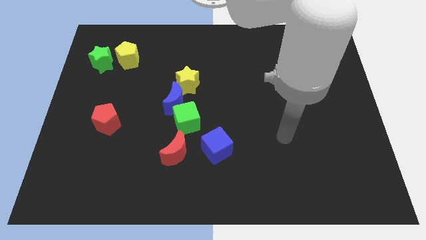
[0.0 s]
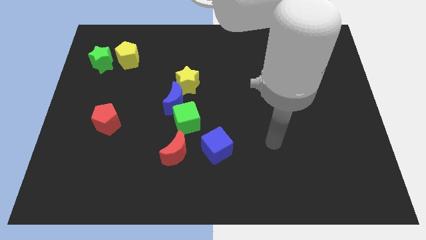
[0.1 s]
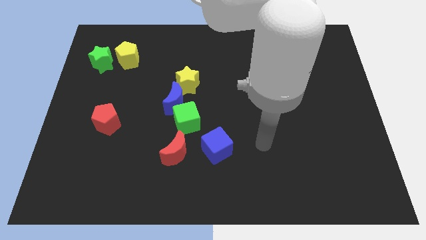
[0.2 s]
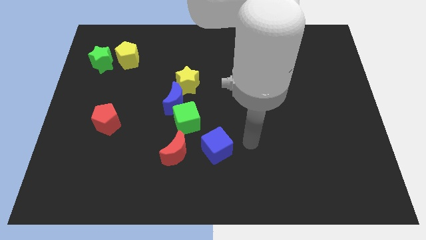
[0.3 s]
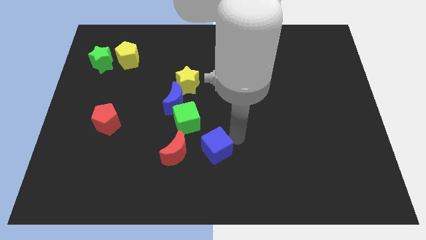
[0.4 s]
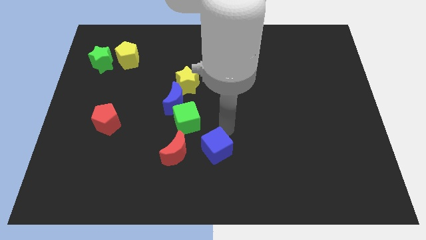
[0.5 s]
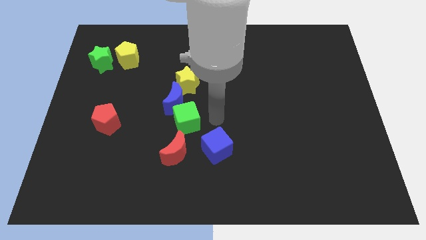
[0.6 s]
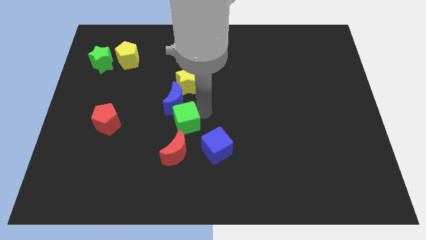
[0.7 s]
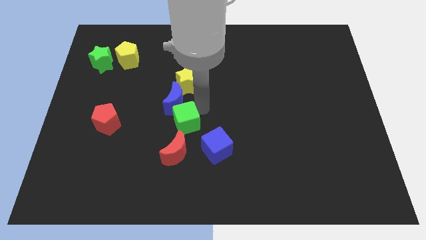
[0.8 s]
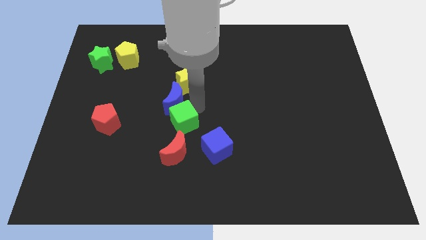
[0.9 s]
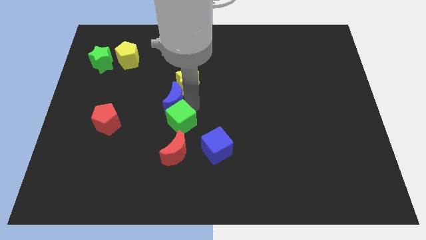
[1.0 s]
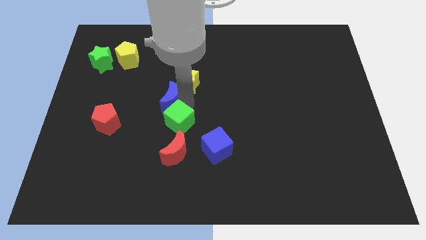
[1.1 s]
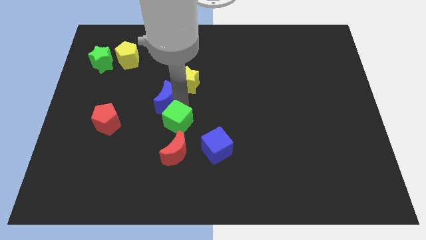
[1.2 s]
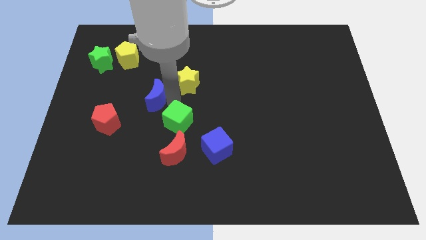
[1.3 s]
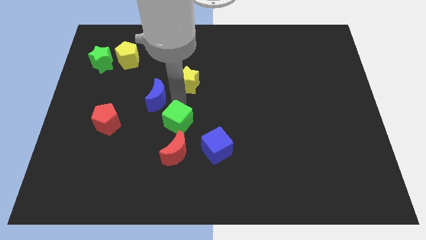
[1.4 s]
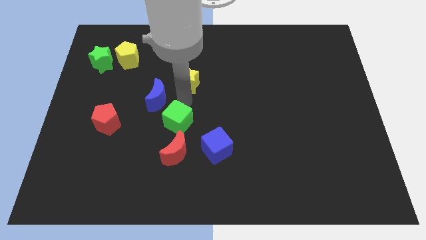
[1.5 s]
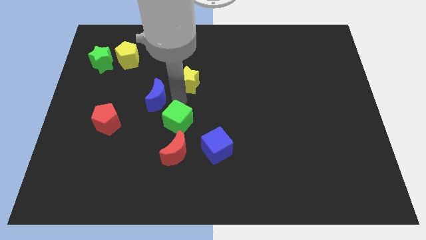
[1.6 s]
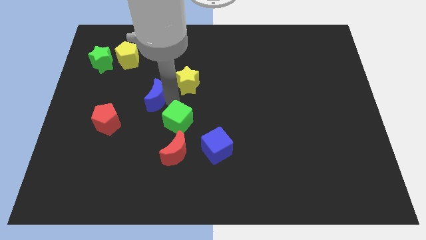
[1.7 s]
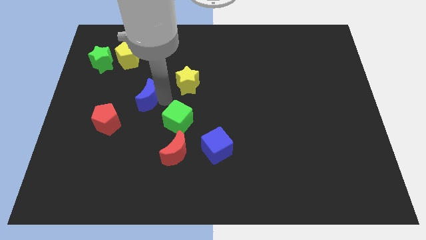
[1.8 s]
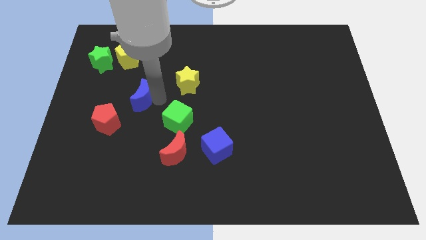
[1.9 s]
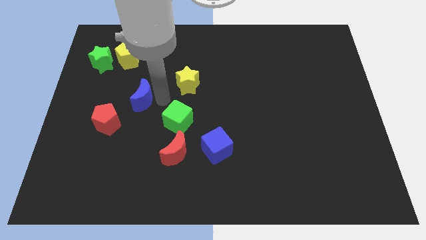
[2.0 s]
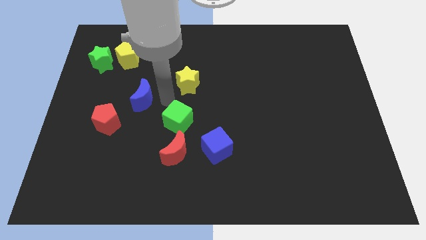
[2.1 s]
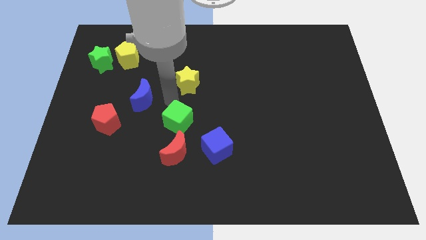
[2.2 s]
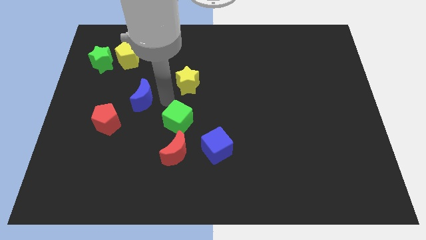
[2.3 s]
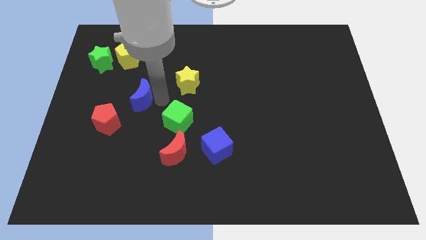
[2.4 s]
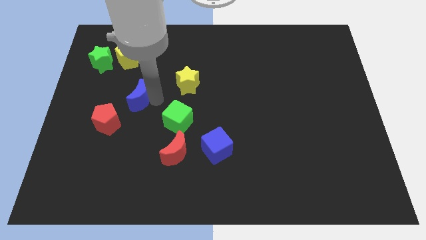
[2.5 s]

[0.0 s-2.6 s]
pull the blue moon apart from the green cube and yellow star

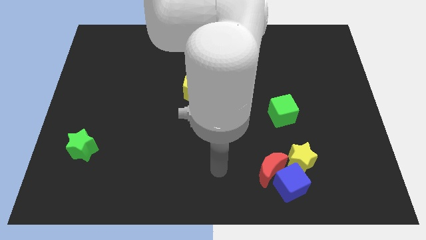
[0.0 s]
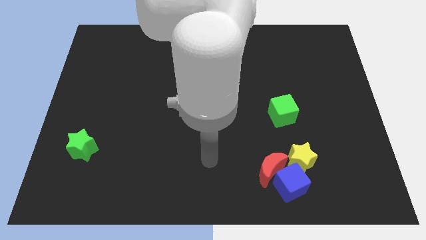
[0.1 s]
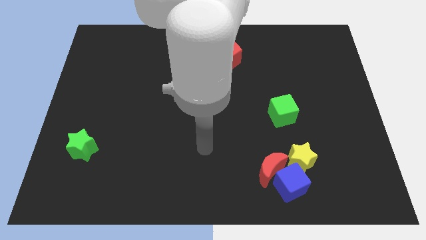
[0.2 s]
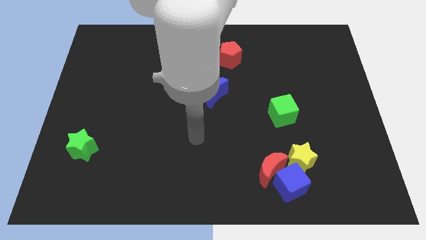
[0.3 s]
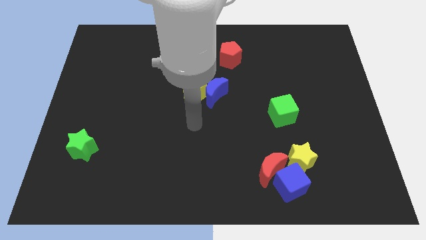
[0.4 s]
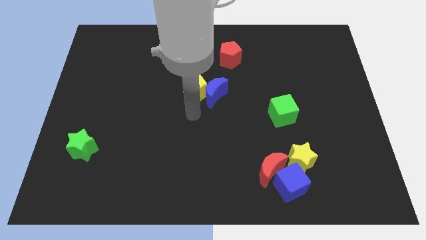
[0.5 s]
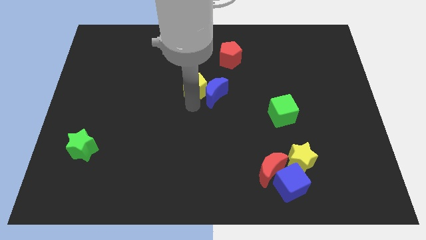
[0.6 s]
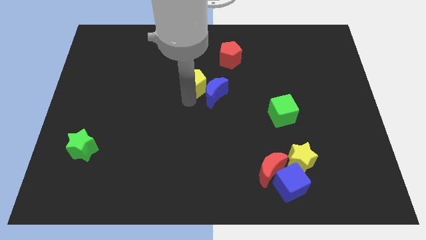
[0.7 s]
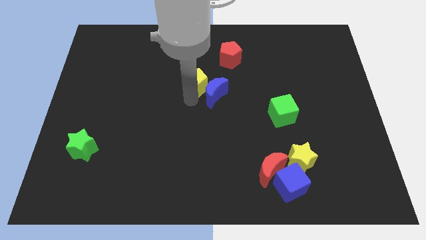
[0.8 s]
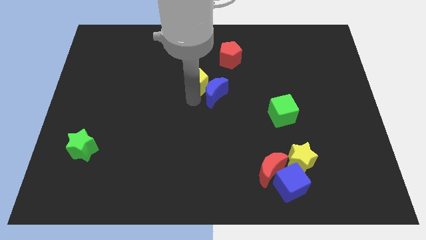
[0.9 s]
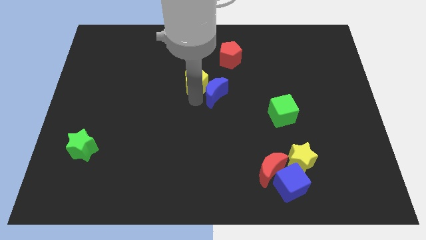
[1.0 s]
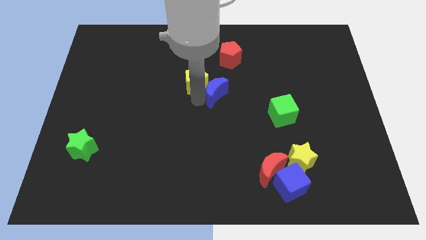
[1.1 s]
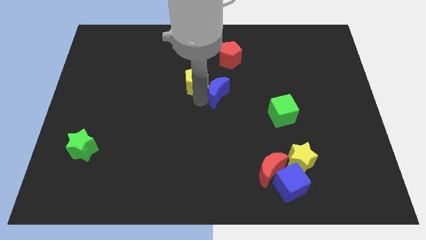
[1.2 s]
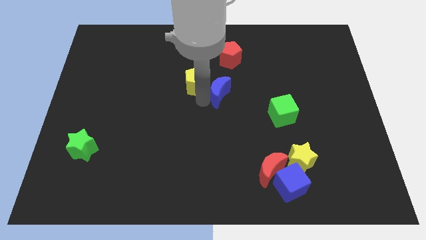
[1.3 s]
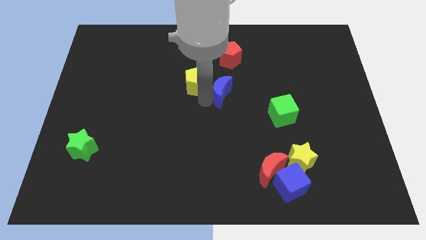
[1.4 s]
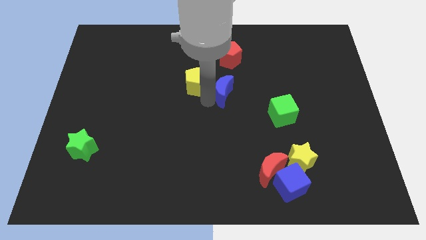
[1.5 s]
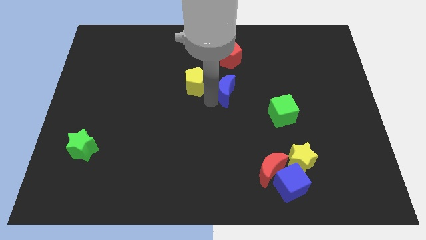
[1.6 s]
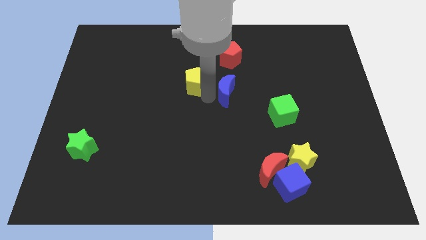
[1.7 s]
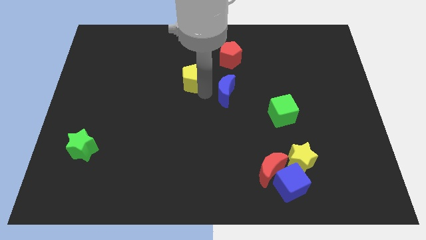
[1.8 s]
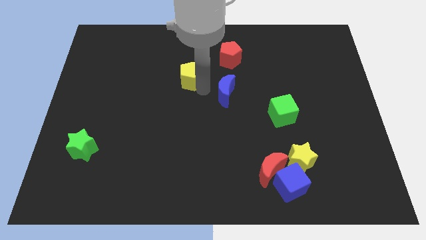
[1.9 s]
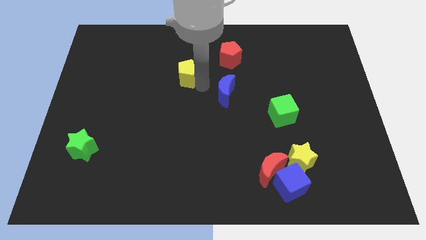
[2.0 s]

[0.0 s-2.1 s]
move the blue moon away from the yellow pentagon

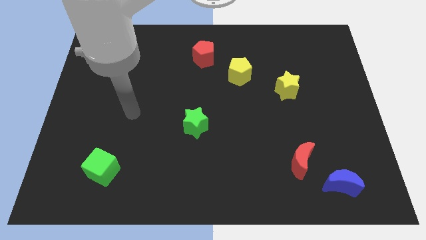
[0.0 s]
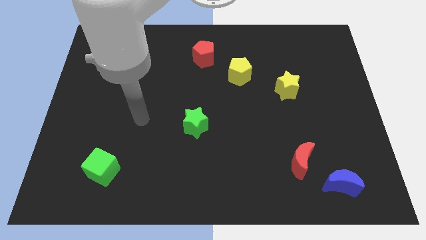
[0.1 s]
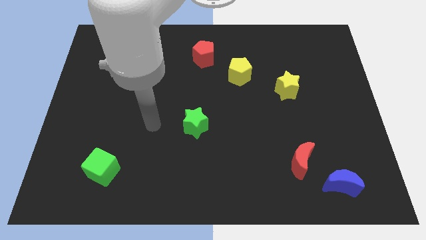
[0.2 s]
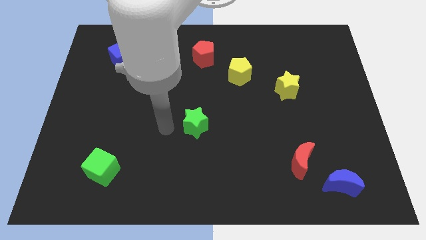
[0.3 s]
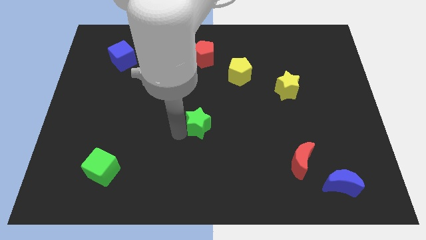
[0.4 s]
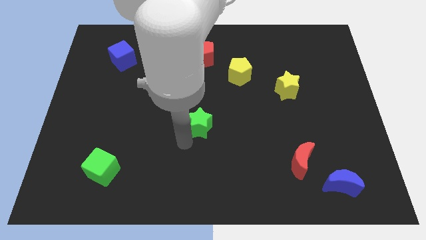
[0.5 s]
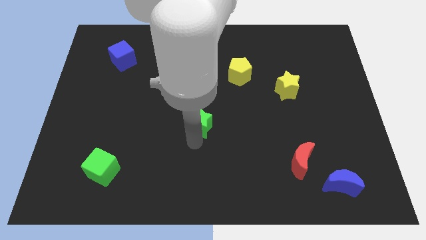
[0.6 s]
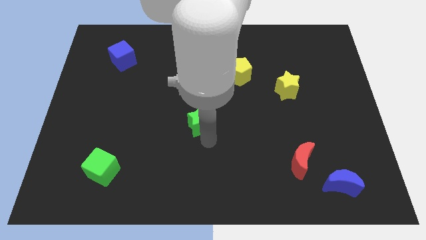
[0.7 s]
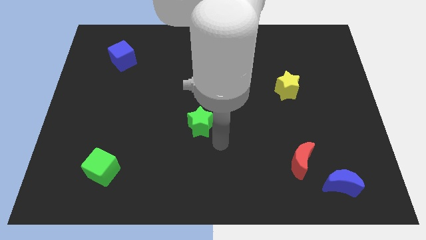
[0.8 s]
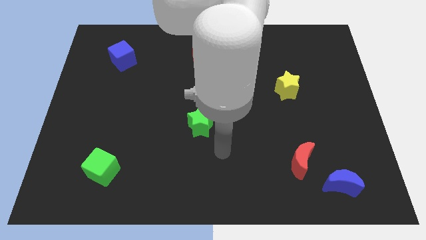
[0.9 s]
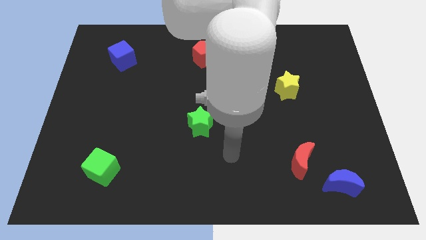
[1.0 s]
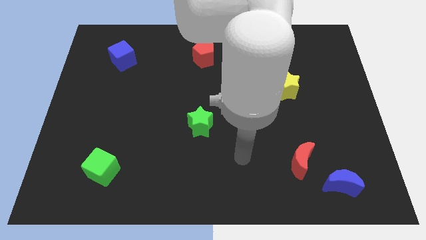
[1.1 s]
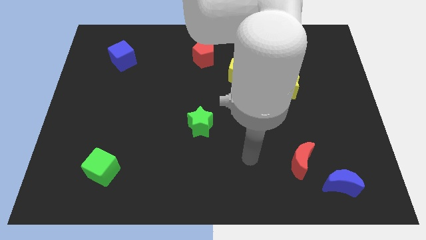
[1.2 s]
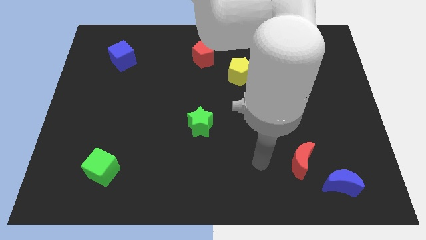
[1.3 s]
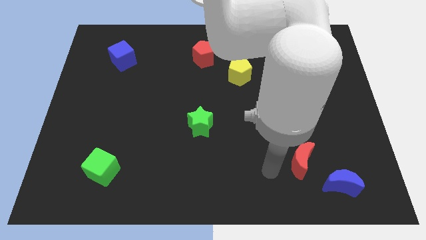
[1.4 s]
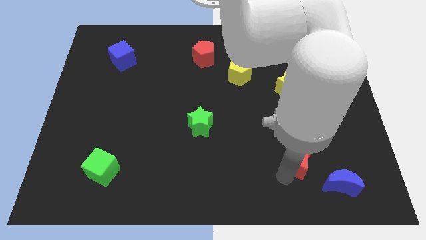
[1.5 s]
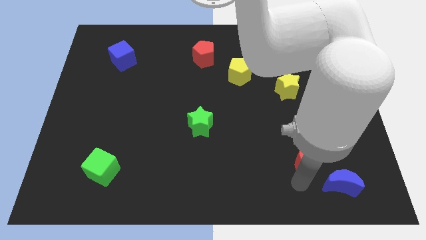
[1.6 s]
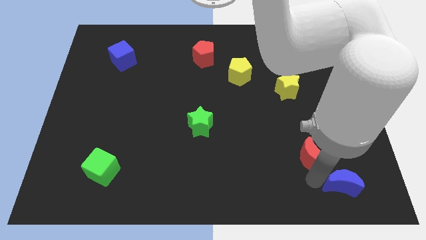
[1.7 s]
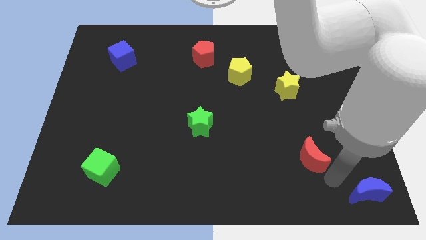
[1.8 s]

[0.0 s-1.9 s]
pull the red moon apart from the blue moon

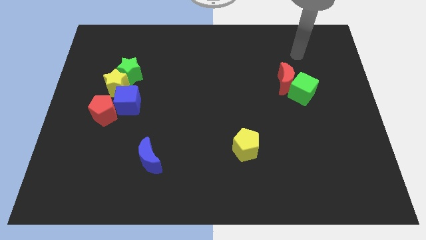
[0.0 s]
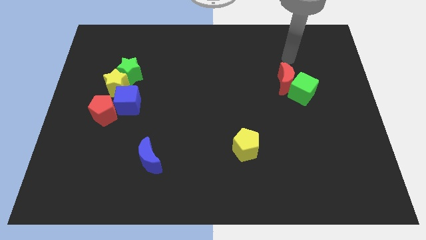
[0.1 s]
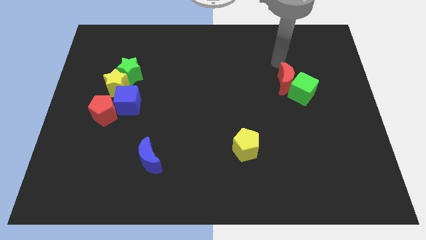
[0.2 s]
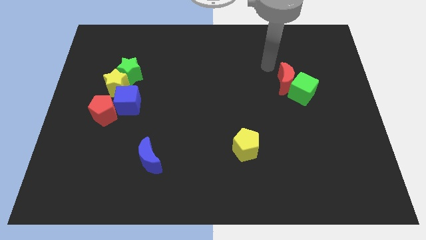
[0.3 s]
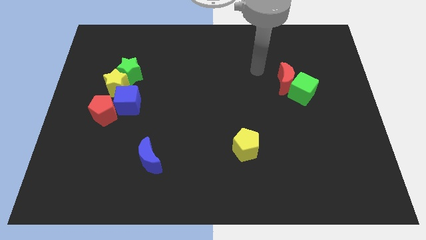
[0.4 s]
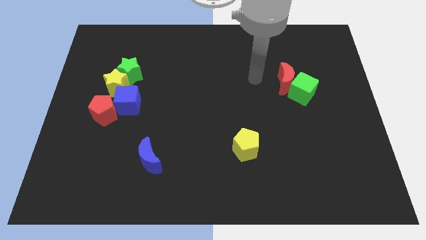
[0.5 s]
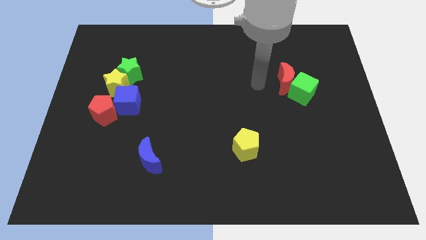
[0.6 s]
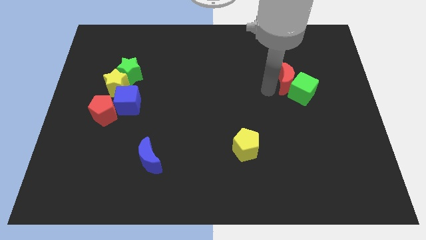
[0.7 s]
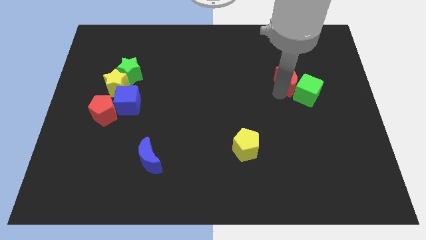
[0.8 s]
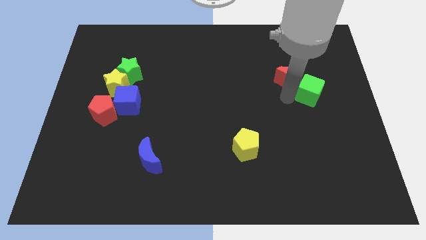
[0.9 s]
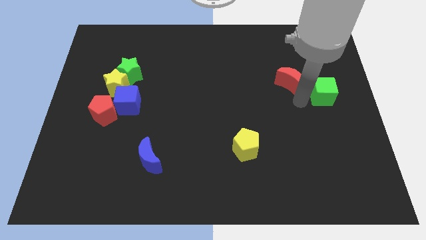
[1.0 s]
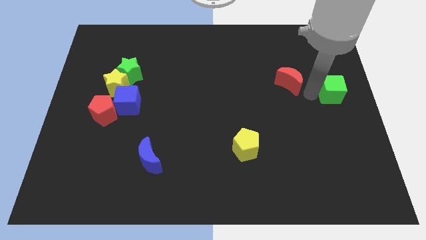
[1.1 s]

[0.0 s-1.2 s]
pull the red moon apart from the green cube

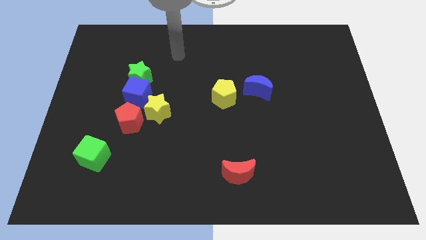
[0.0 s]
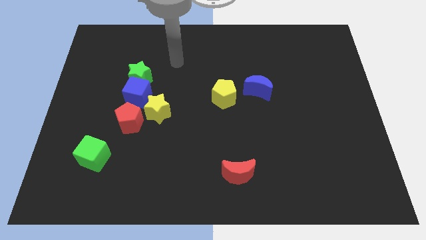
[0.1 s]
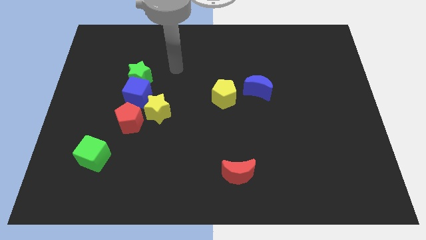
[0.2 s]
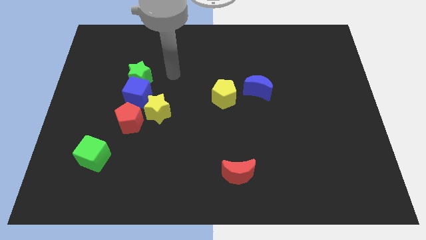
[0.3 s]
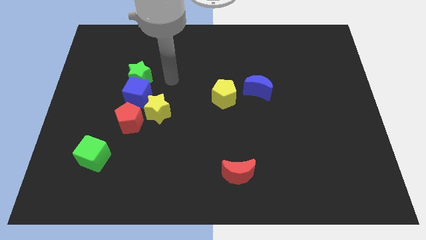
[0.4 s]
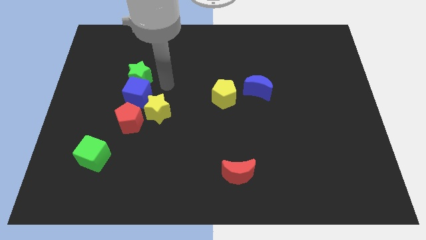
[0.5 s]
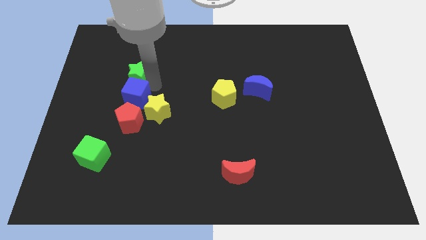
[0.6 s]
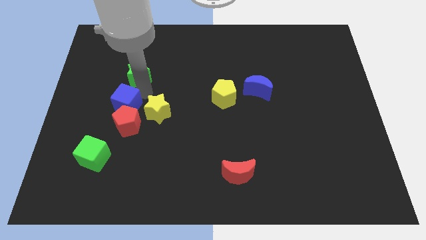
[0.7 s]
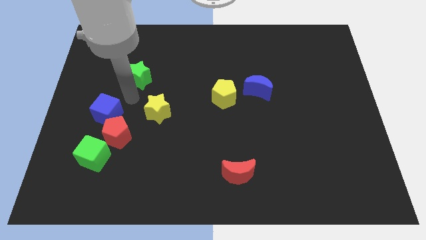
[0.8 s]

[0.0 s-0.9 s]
pull the green star apart from the blue cube

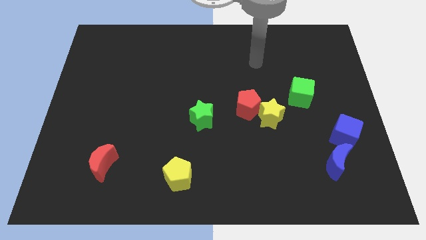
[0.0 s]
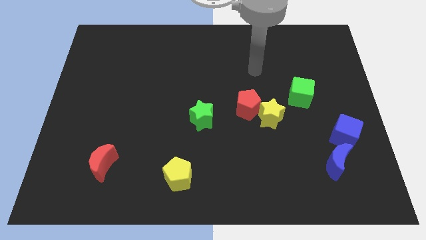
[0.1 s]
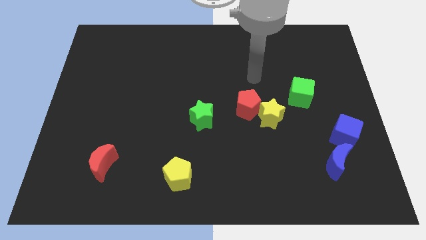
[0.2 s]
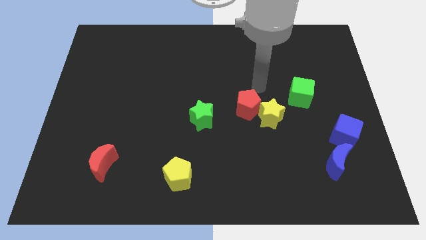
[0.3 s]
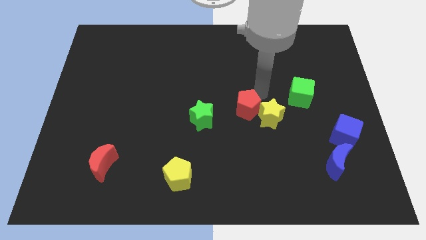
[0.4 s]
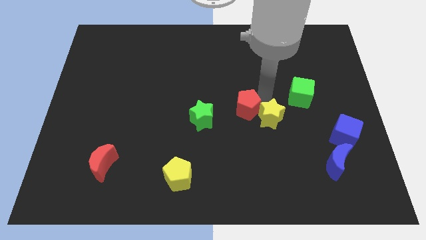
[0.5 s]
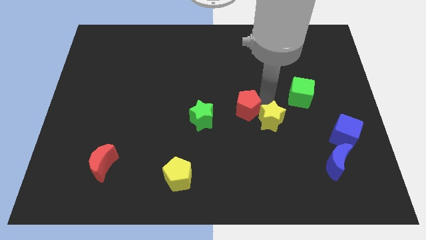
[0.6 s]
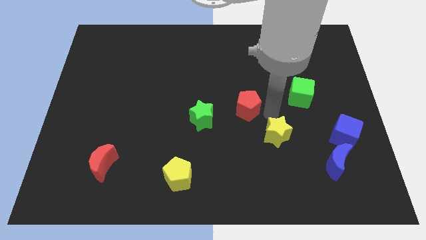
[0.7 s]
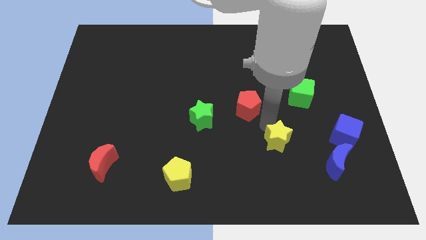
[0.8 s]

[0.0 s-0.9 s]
pull the red pentagon apart from the yellow star
